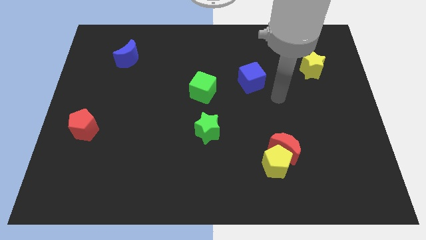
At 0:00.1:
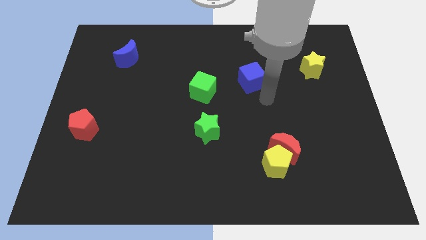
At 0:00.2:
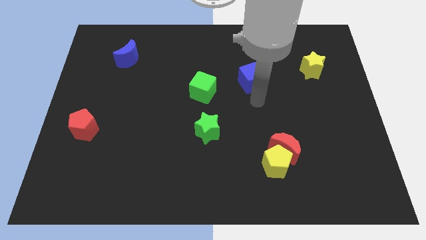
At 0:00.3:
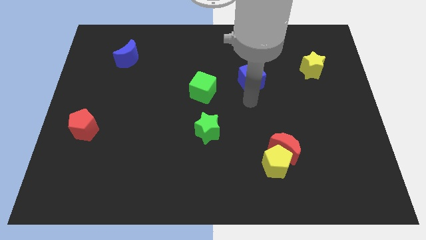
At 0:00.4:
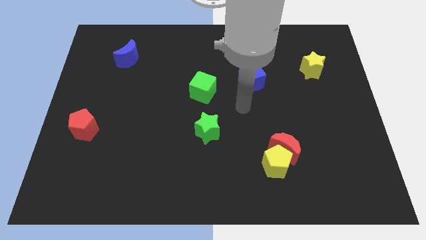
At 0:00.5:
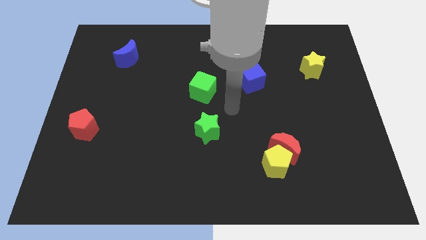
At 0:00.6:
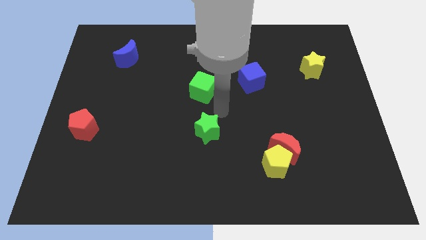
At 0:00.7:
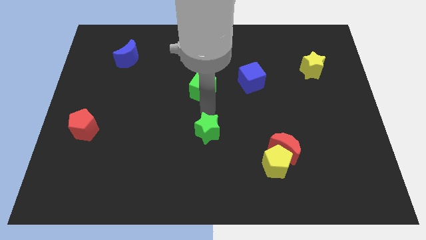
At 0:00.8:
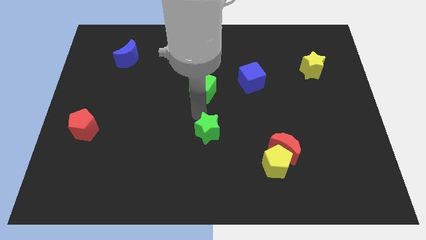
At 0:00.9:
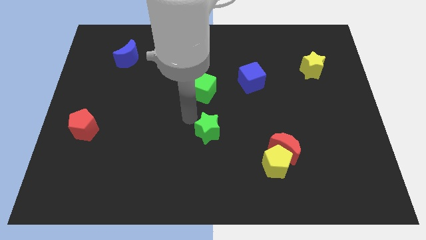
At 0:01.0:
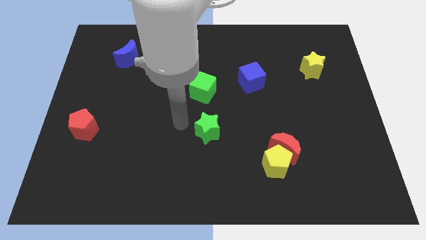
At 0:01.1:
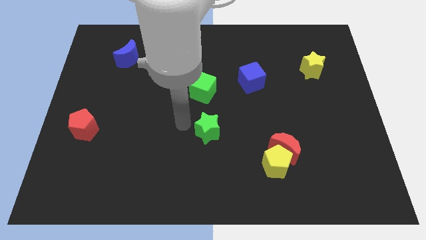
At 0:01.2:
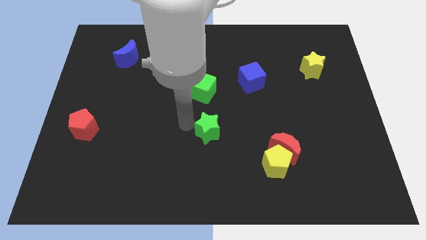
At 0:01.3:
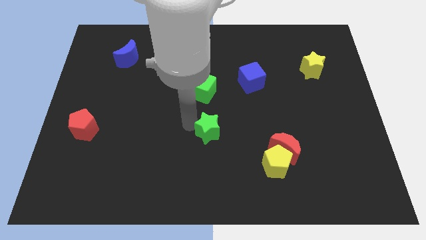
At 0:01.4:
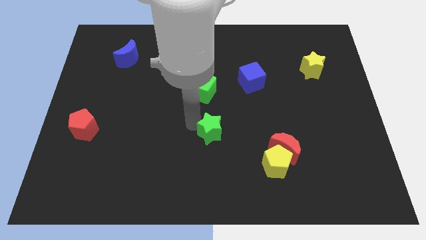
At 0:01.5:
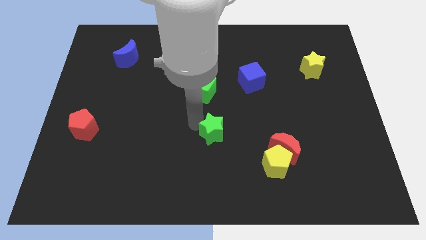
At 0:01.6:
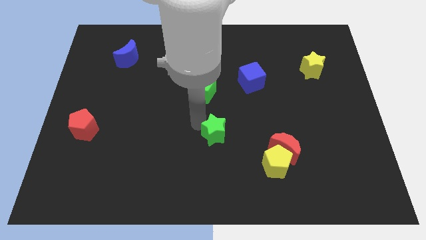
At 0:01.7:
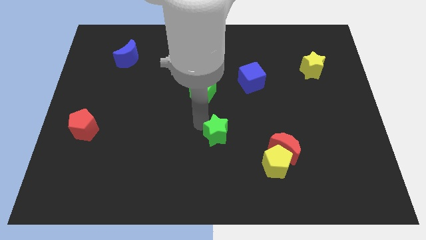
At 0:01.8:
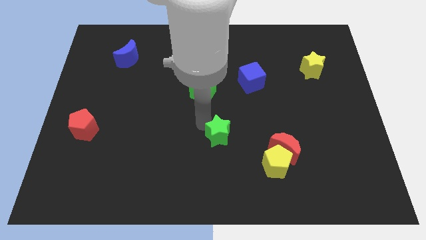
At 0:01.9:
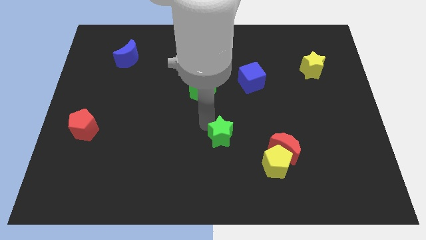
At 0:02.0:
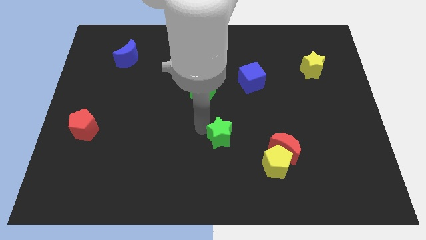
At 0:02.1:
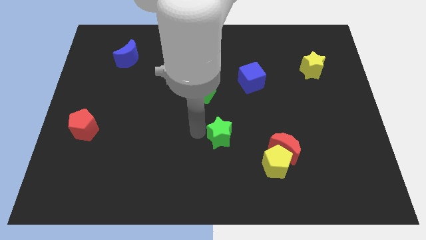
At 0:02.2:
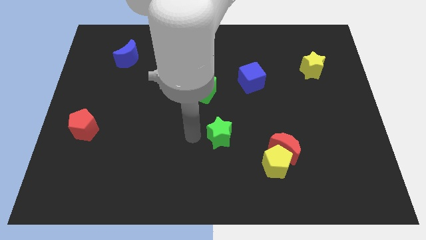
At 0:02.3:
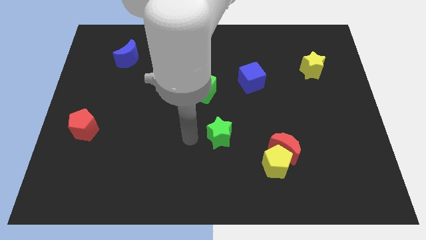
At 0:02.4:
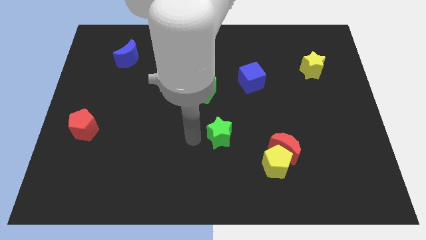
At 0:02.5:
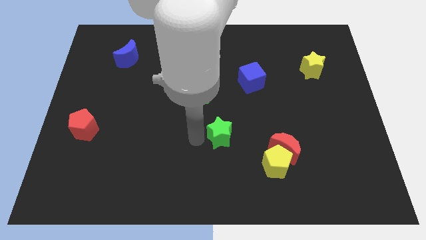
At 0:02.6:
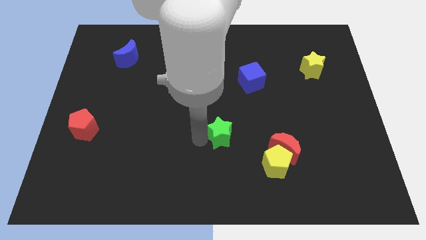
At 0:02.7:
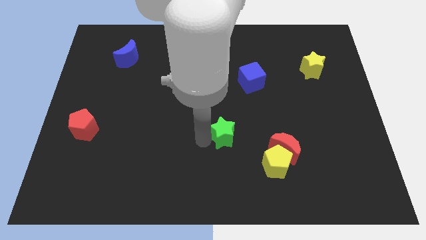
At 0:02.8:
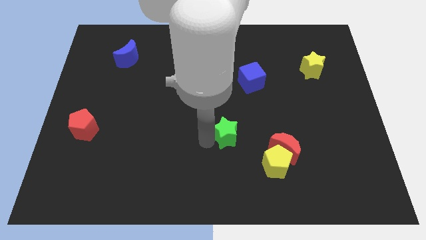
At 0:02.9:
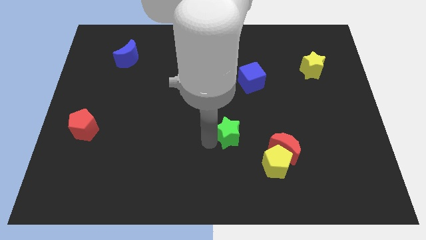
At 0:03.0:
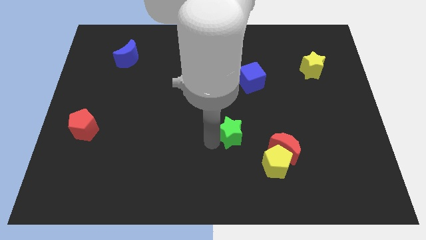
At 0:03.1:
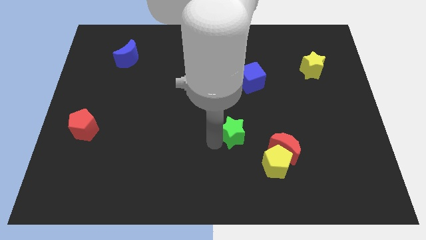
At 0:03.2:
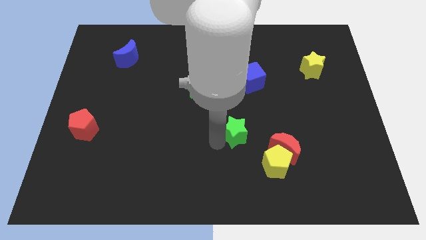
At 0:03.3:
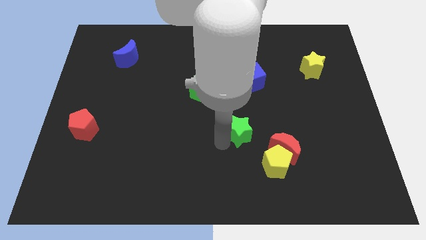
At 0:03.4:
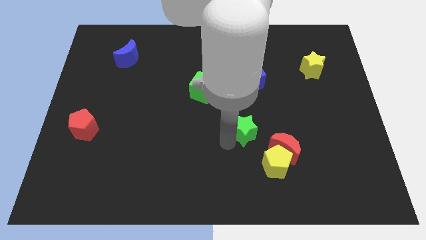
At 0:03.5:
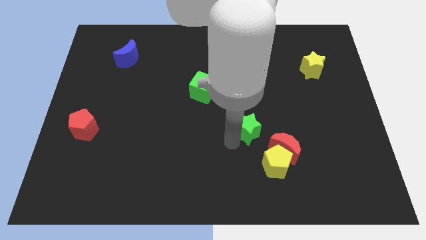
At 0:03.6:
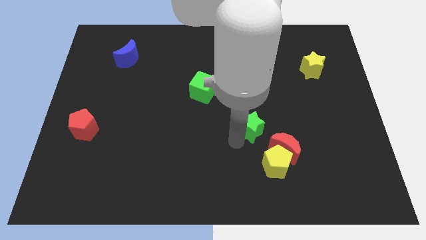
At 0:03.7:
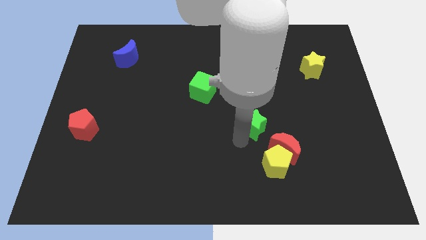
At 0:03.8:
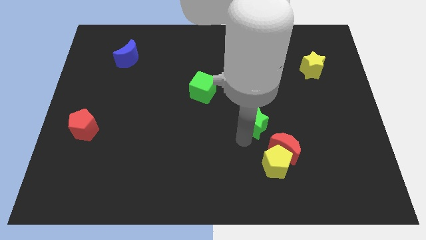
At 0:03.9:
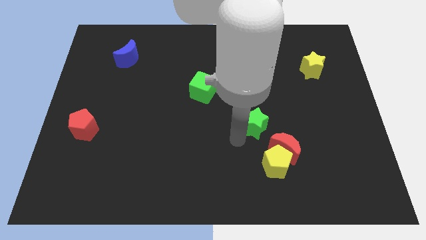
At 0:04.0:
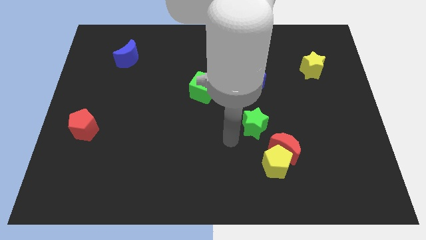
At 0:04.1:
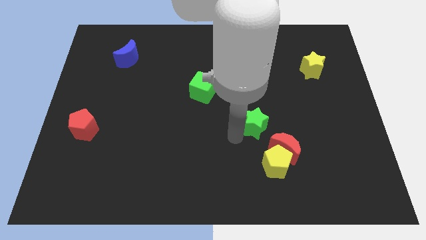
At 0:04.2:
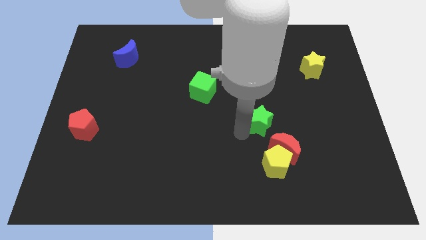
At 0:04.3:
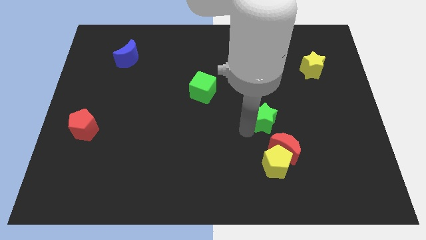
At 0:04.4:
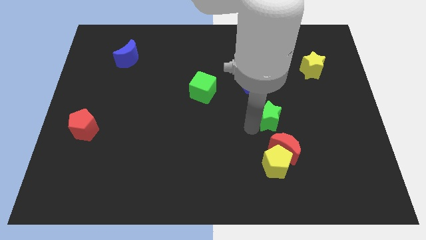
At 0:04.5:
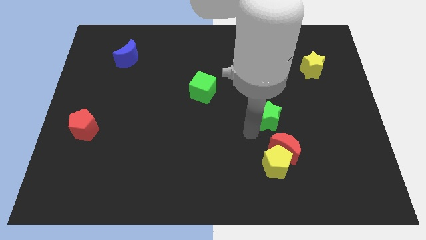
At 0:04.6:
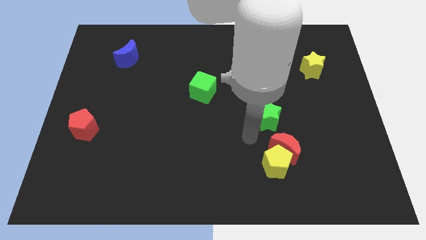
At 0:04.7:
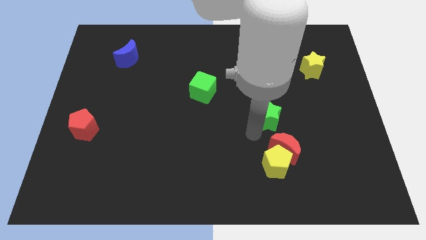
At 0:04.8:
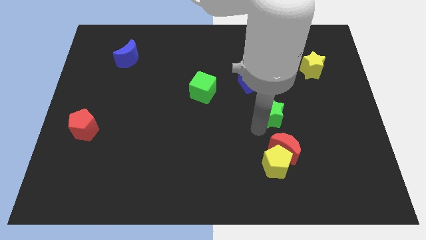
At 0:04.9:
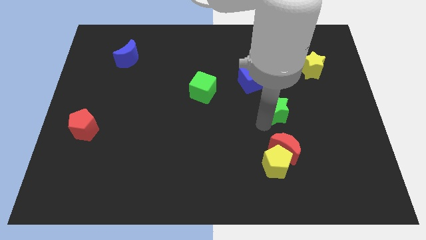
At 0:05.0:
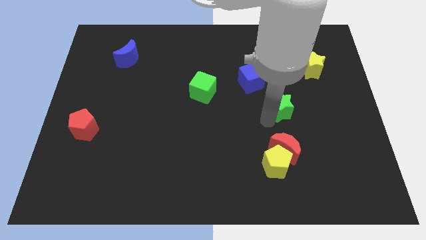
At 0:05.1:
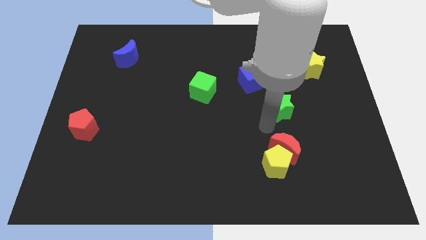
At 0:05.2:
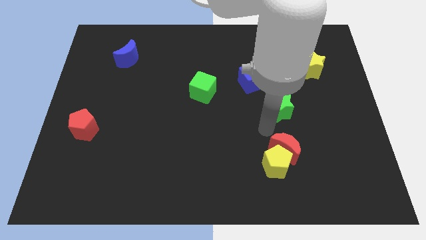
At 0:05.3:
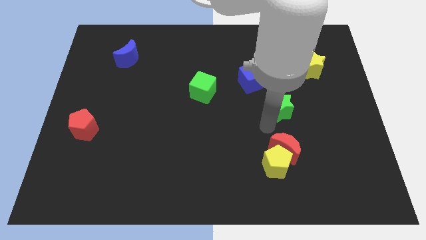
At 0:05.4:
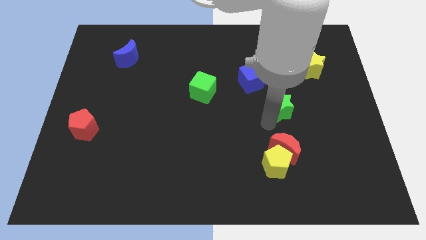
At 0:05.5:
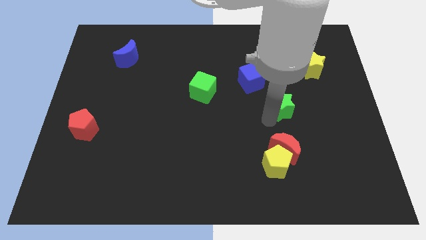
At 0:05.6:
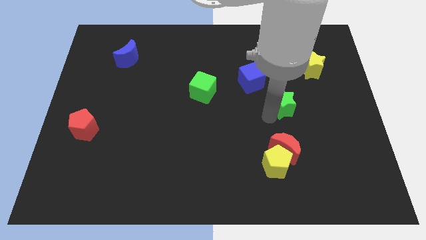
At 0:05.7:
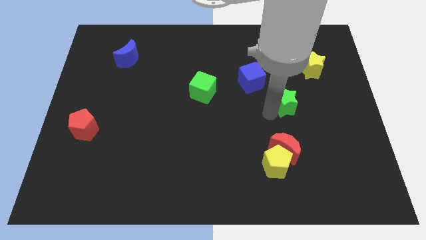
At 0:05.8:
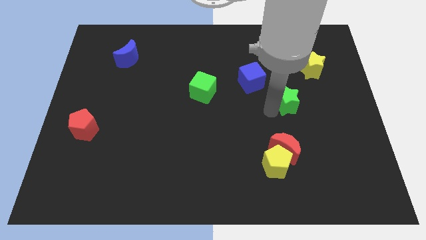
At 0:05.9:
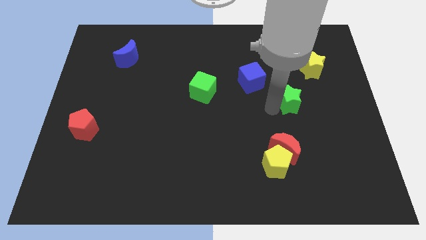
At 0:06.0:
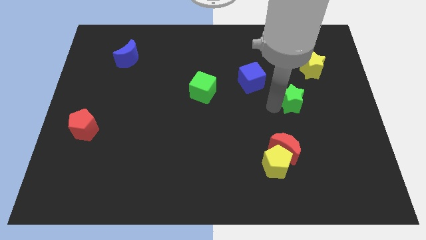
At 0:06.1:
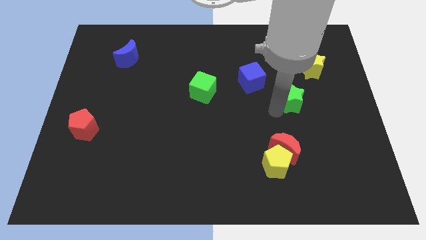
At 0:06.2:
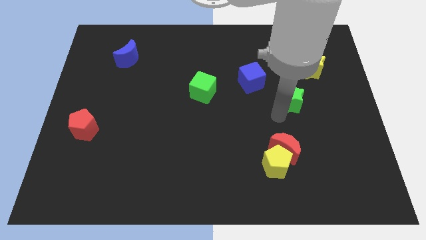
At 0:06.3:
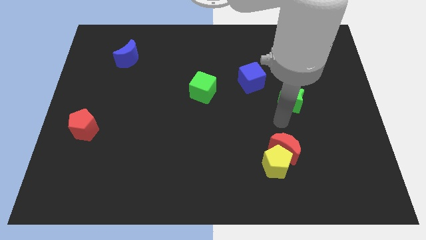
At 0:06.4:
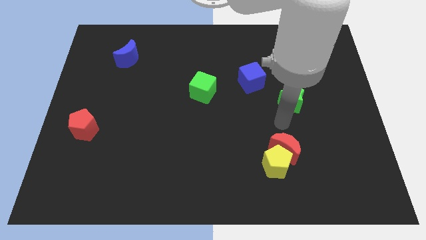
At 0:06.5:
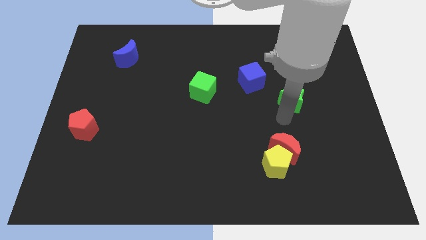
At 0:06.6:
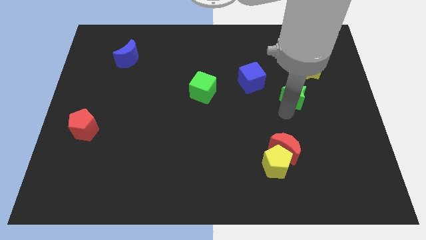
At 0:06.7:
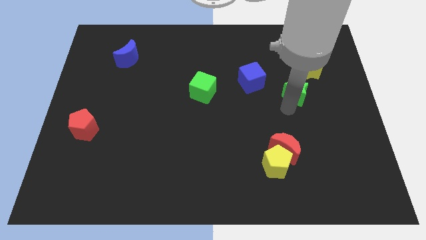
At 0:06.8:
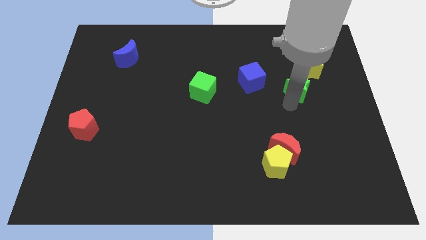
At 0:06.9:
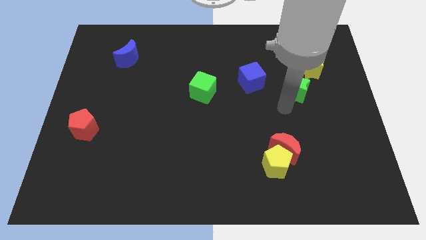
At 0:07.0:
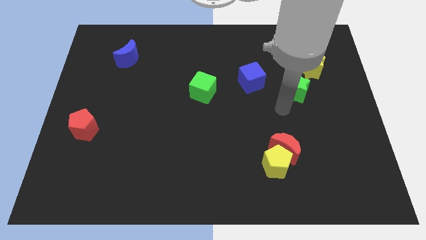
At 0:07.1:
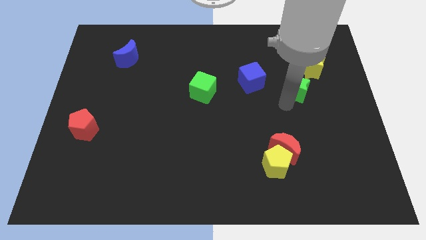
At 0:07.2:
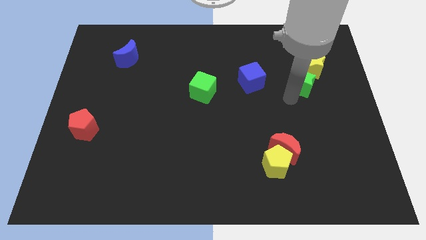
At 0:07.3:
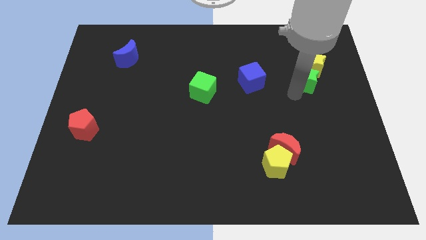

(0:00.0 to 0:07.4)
slide the green star towards the yellow star
